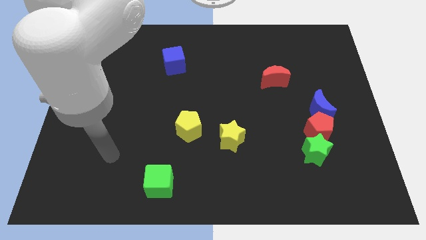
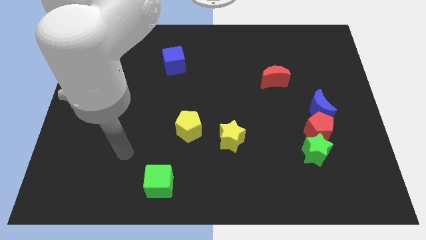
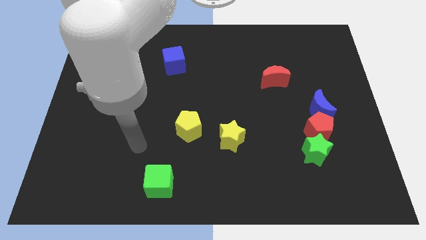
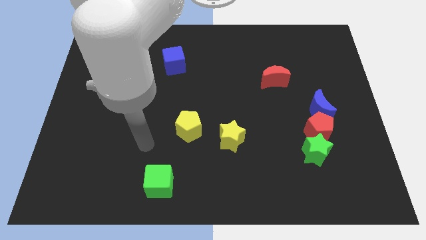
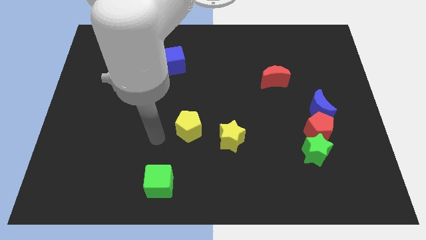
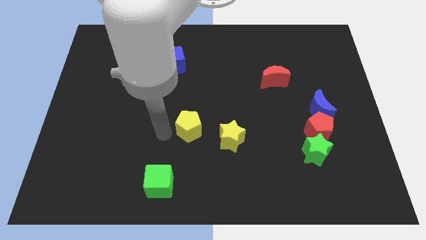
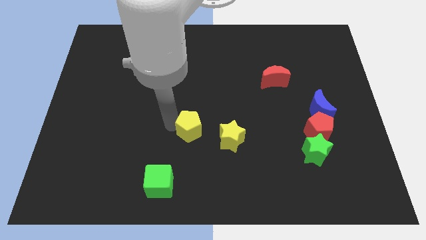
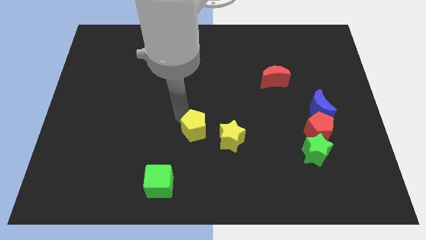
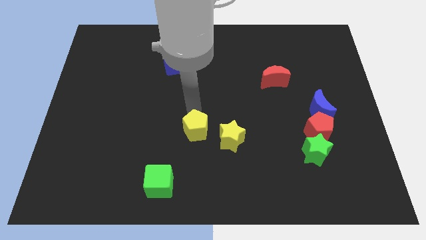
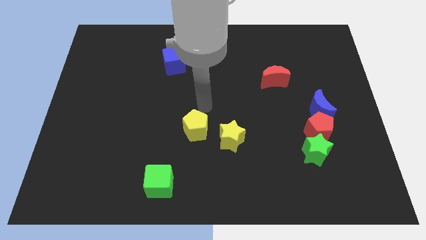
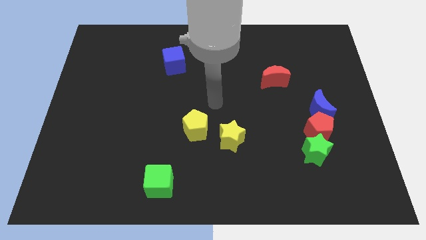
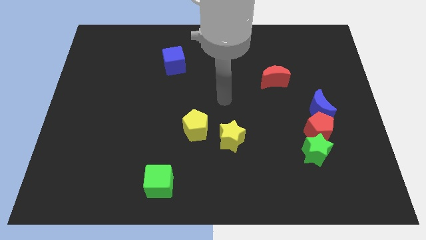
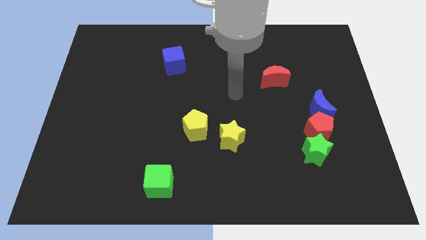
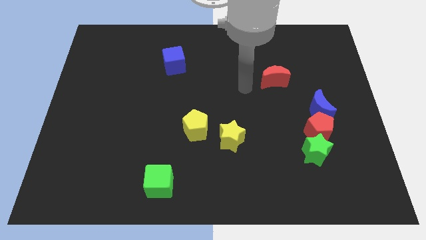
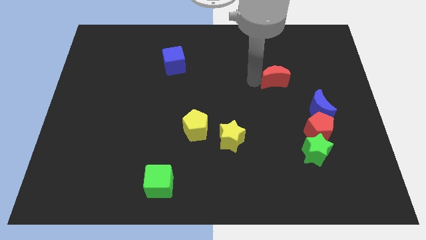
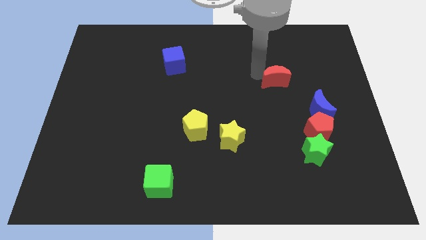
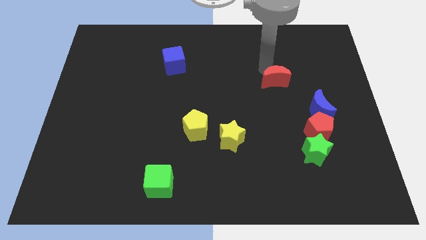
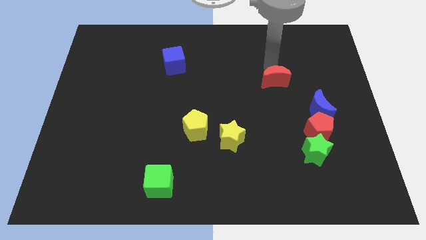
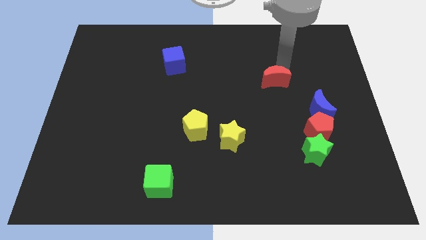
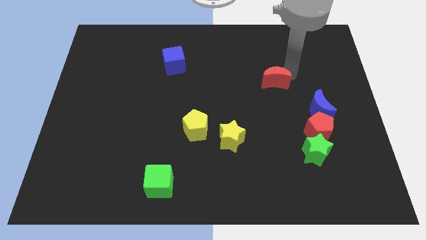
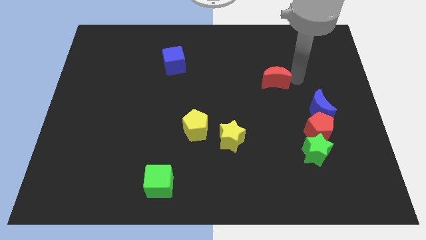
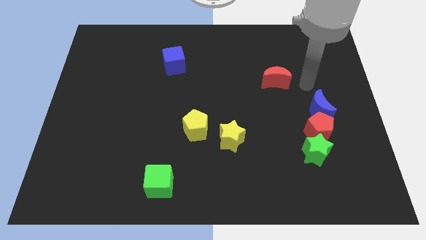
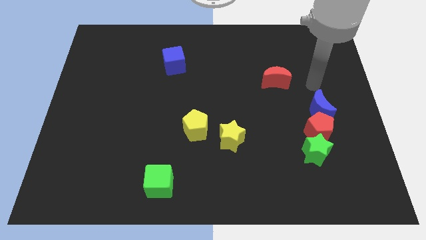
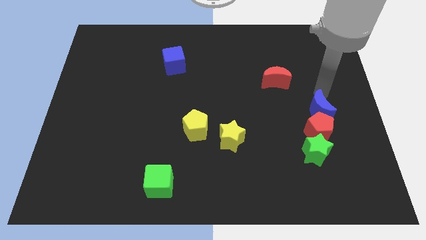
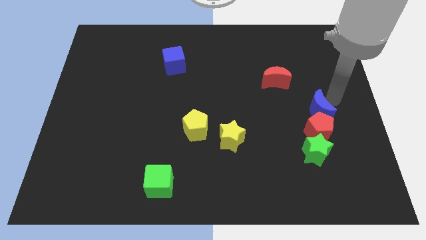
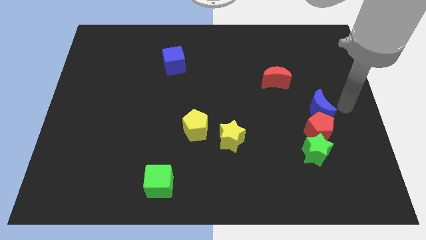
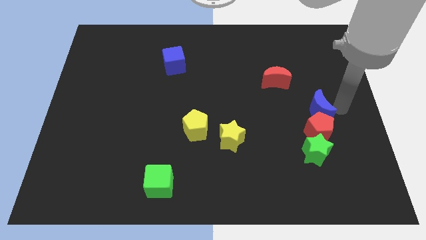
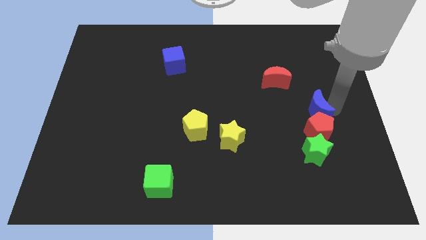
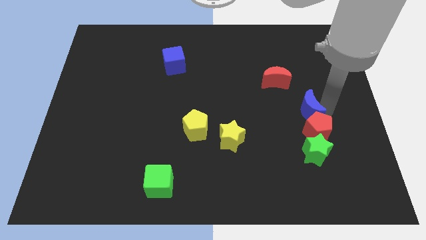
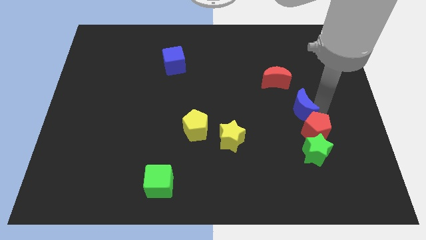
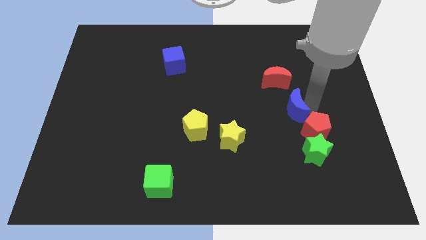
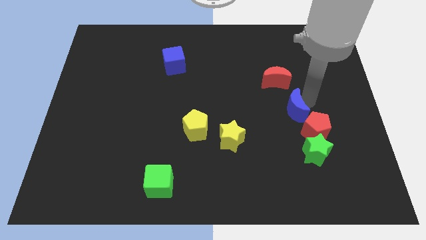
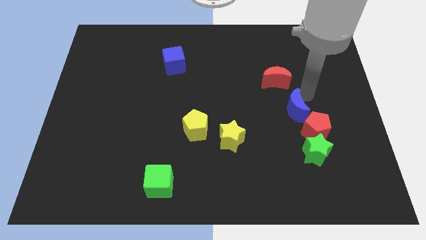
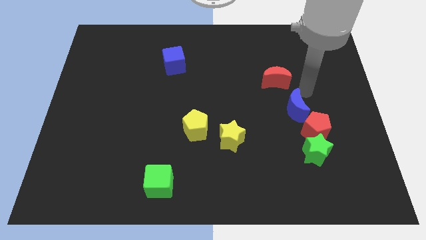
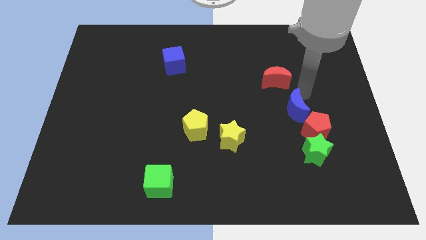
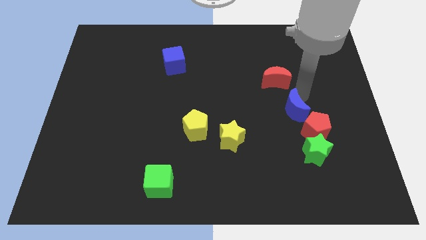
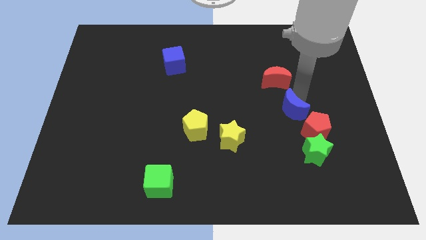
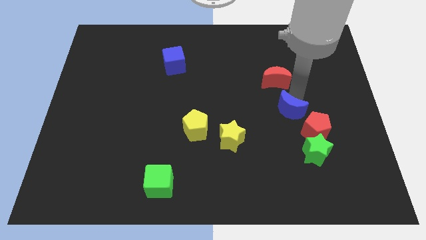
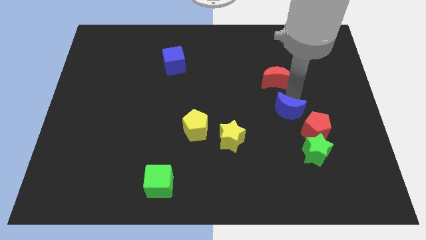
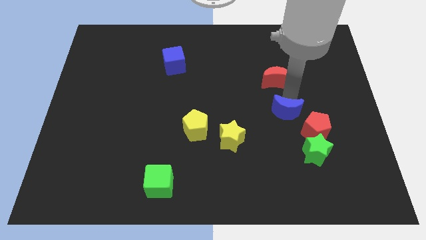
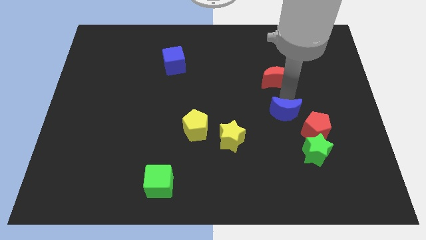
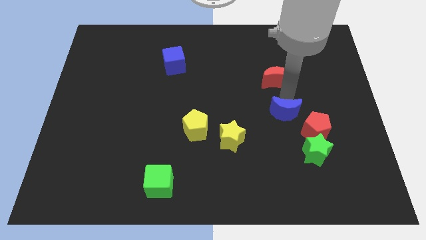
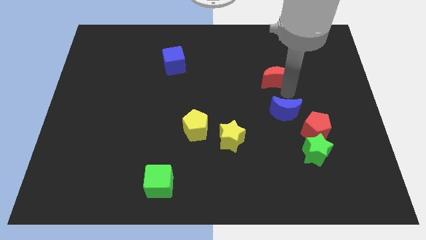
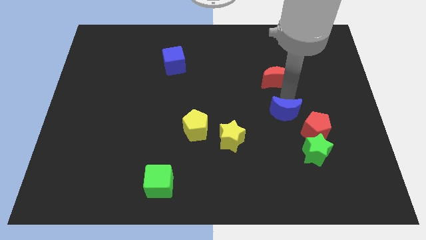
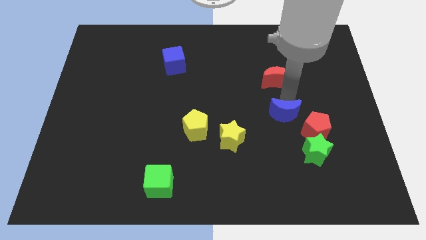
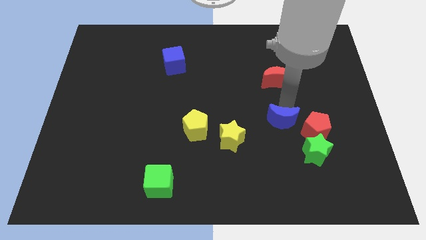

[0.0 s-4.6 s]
slide the blue moon a little bit downwards and left diagonally

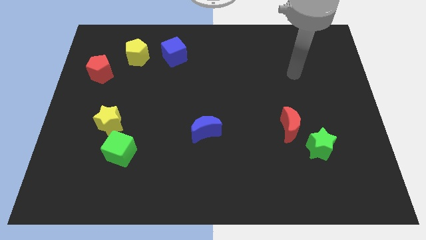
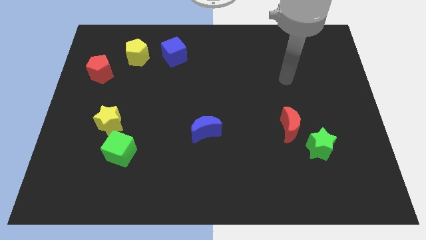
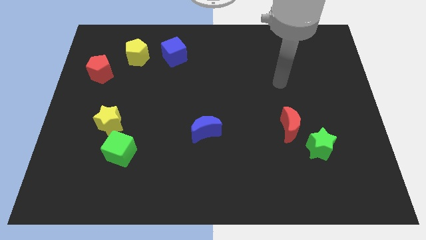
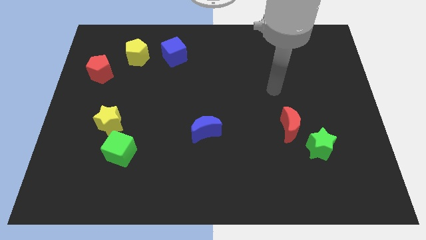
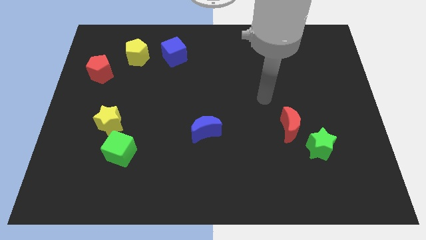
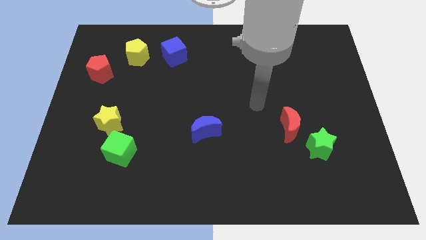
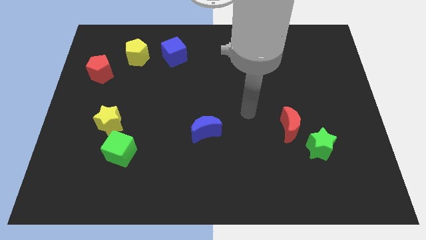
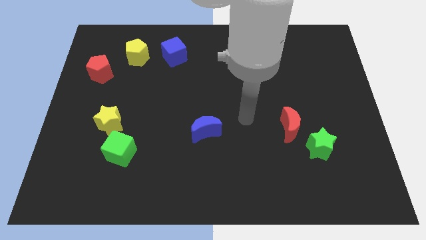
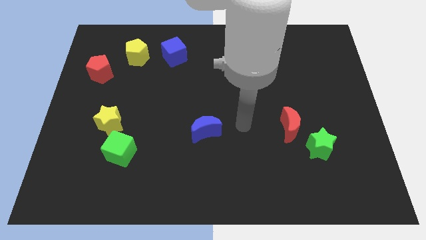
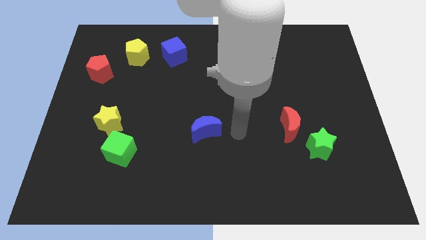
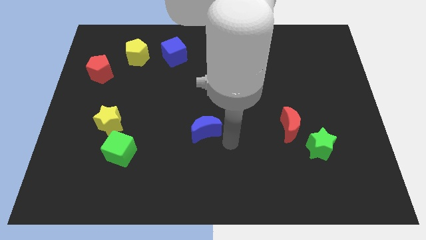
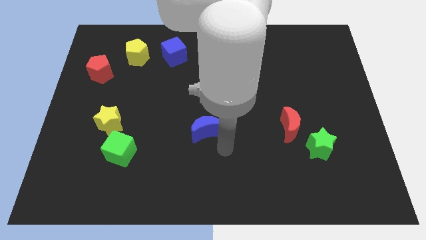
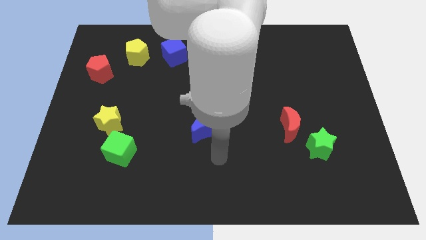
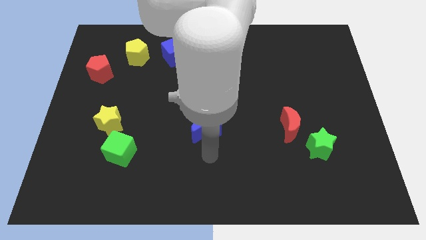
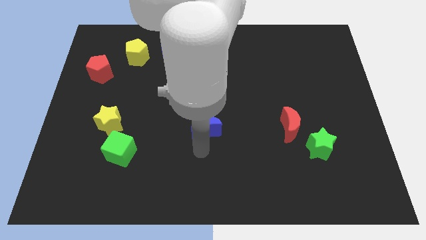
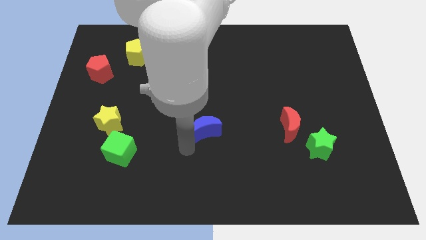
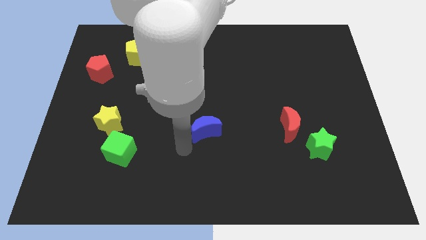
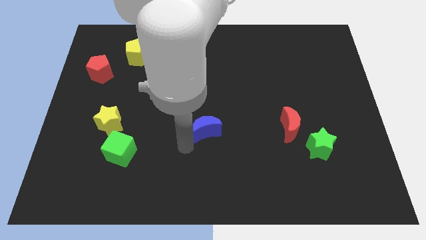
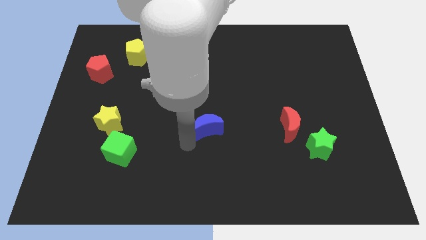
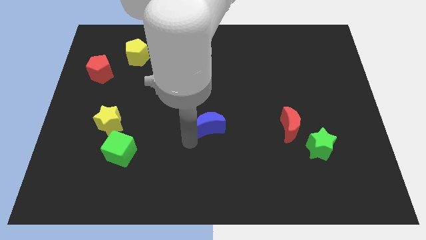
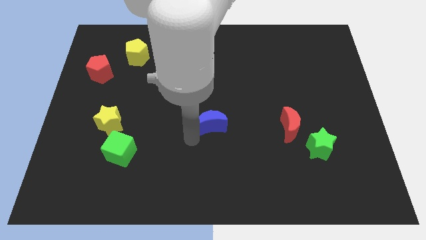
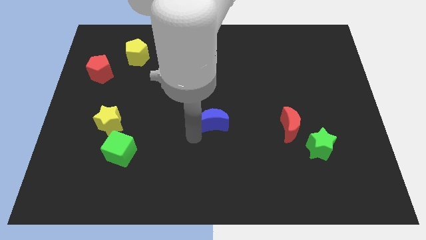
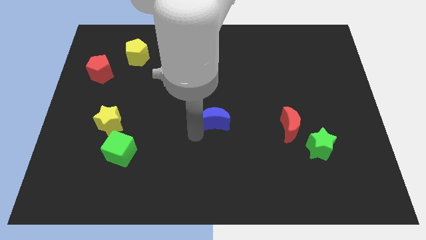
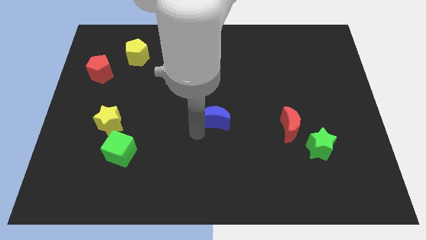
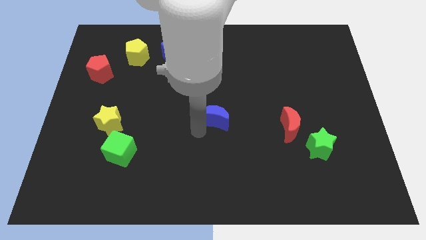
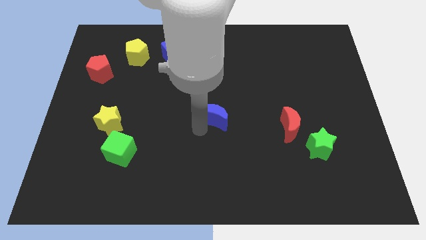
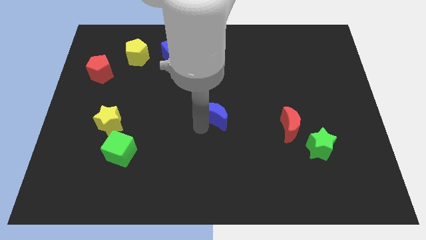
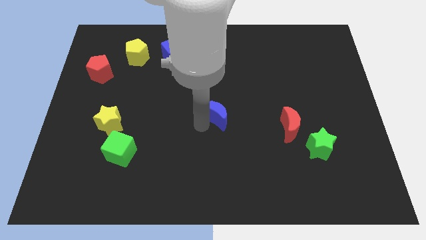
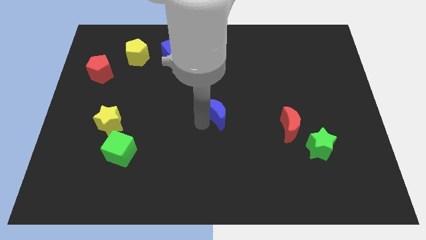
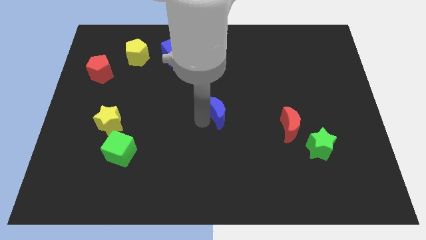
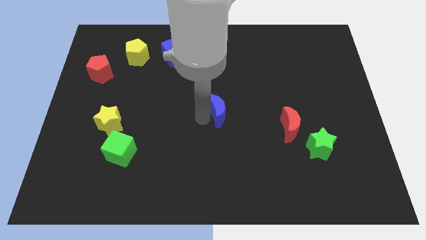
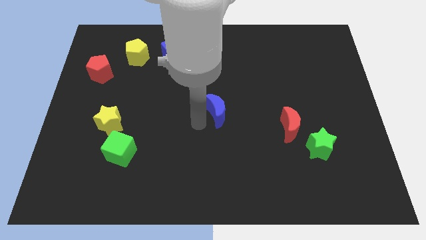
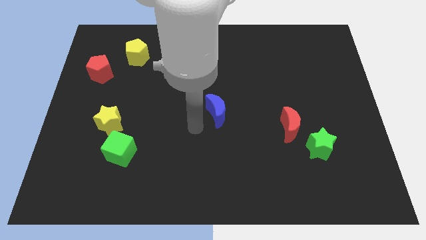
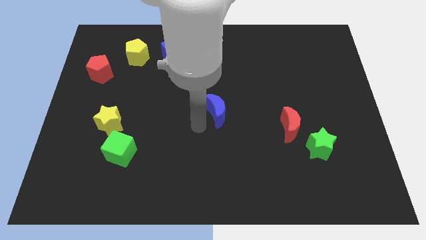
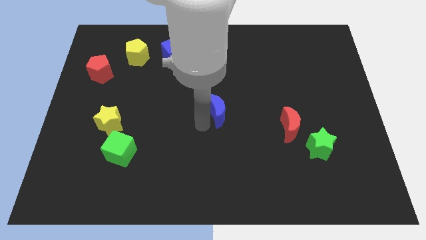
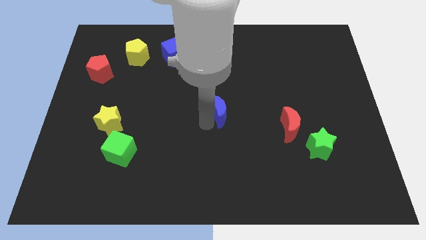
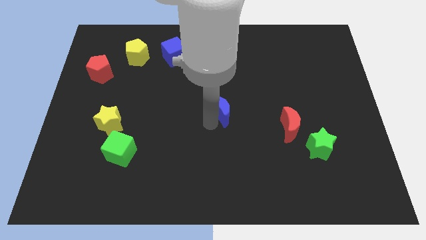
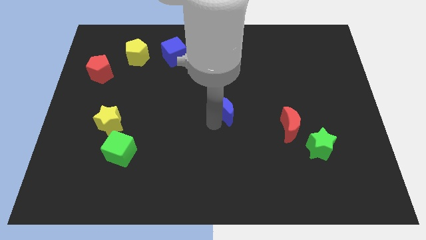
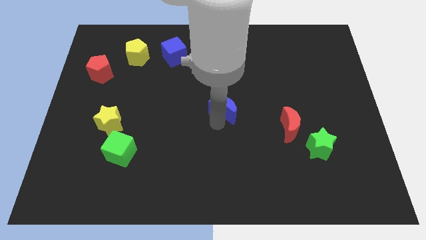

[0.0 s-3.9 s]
slightly move the blue moon up and then right
